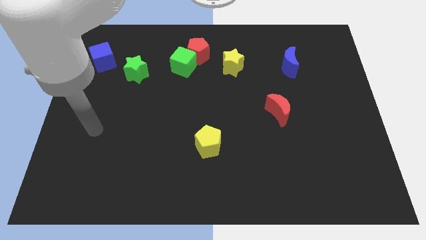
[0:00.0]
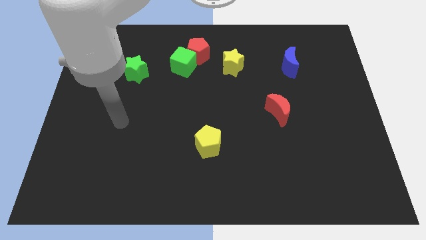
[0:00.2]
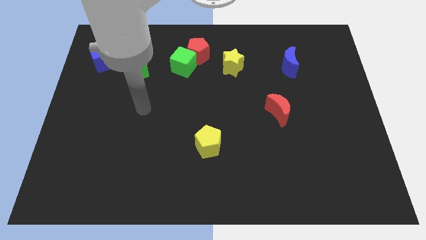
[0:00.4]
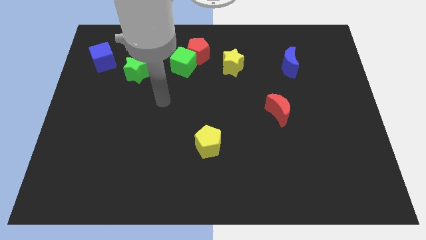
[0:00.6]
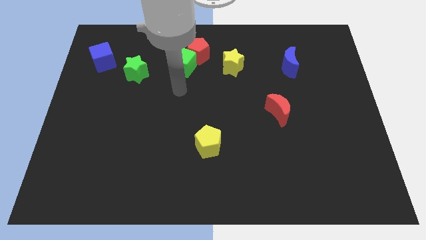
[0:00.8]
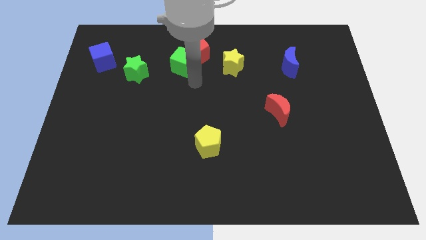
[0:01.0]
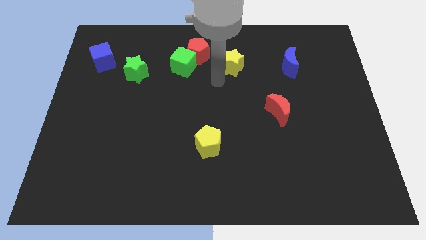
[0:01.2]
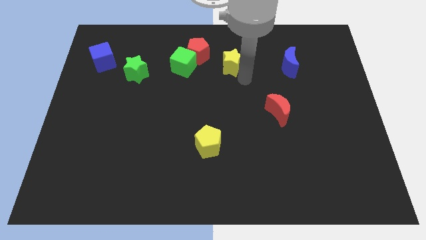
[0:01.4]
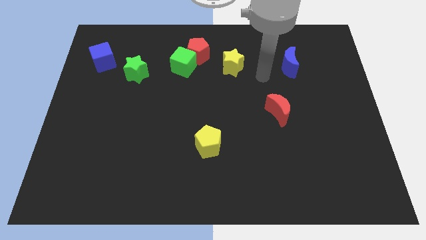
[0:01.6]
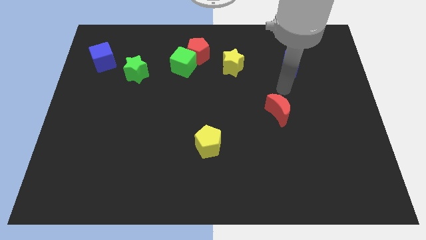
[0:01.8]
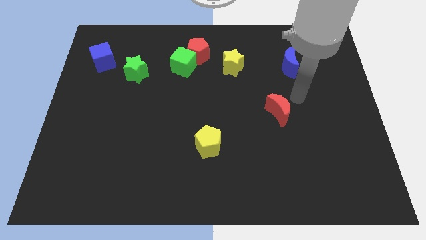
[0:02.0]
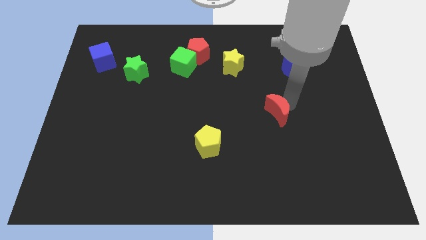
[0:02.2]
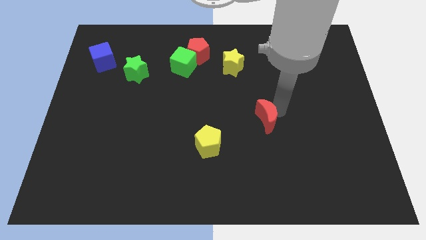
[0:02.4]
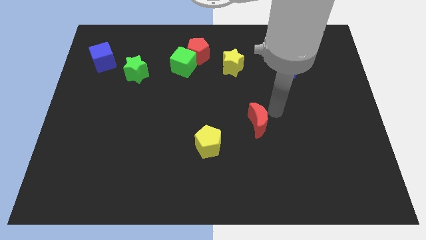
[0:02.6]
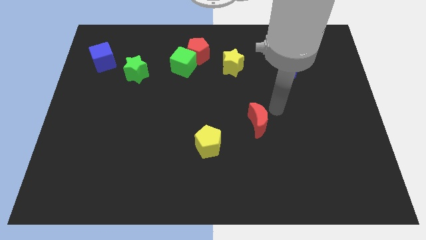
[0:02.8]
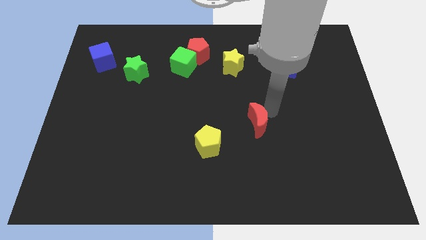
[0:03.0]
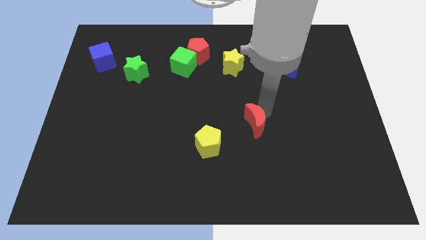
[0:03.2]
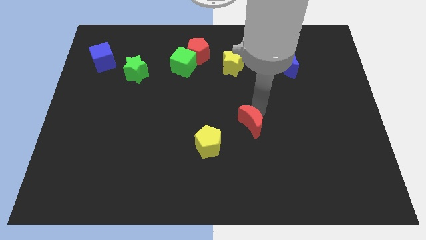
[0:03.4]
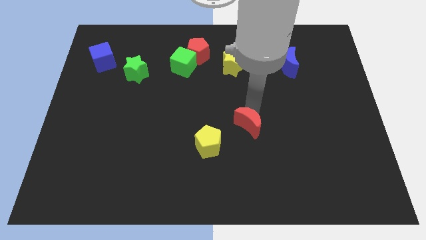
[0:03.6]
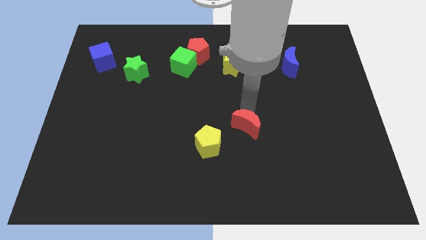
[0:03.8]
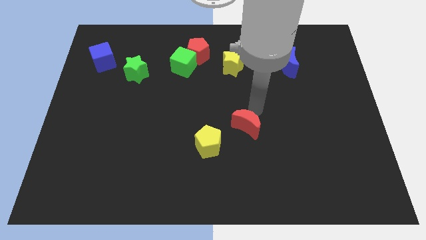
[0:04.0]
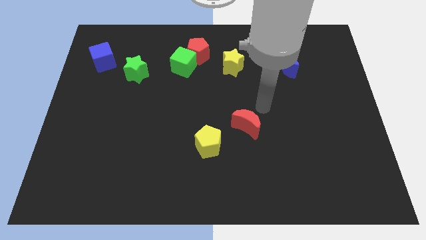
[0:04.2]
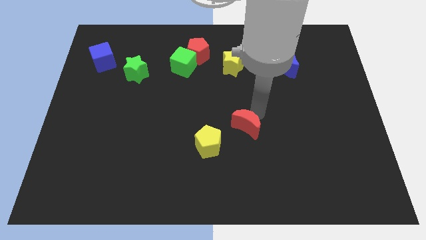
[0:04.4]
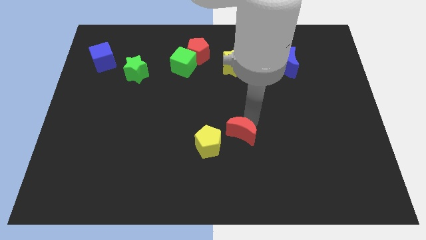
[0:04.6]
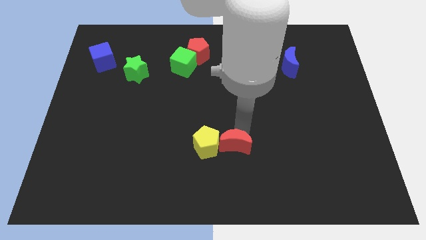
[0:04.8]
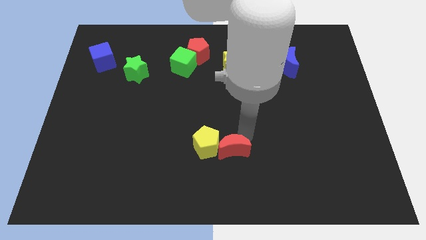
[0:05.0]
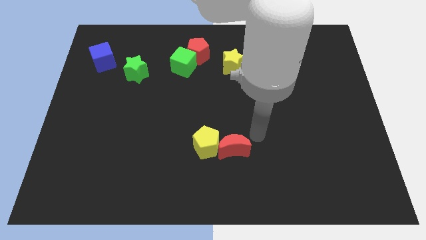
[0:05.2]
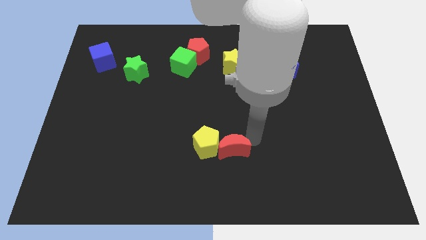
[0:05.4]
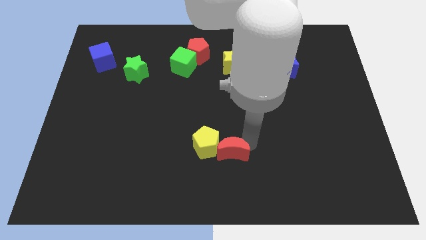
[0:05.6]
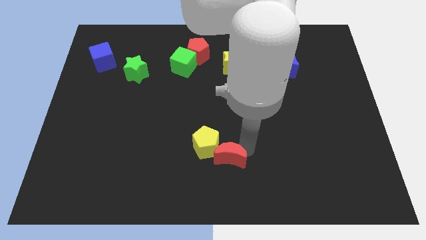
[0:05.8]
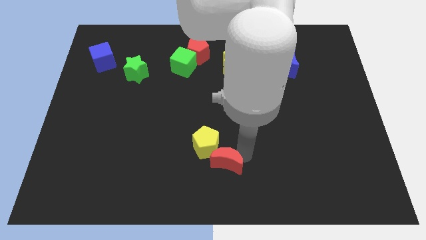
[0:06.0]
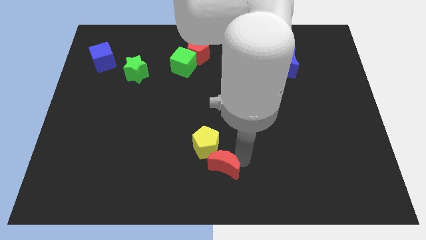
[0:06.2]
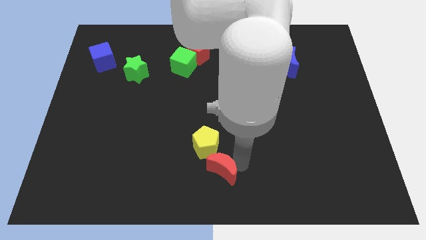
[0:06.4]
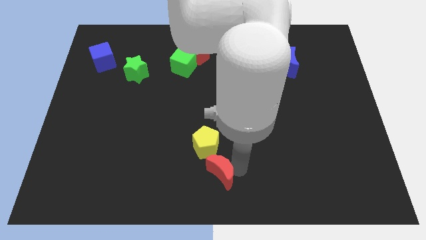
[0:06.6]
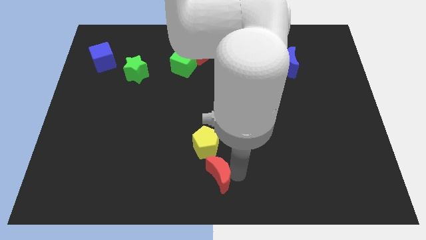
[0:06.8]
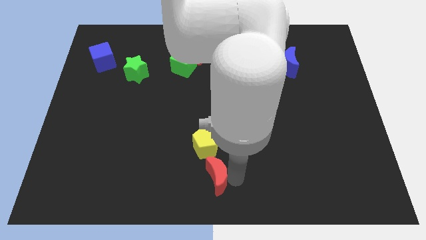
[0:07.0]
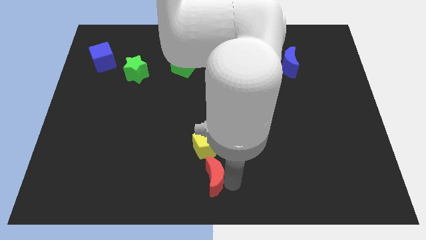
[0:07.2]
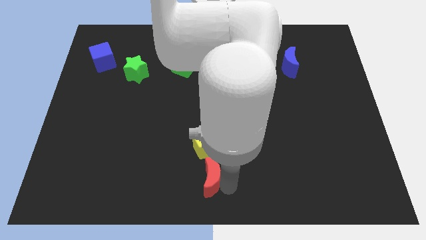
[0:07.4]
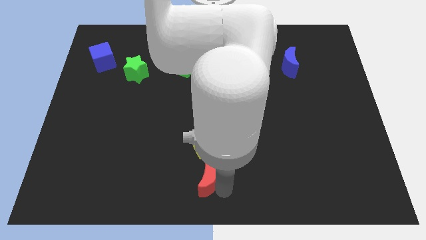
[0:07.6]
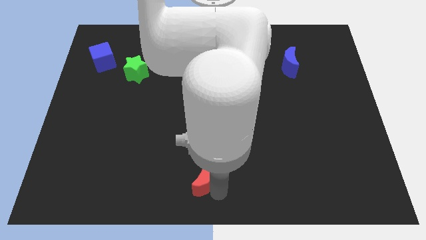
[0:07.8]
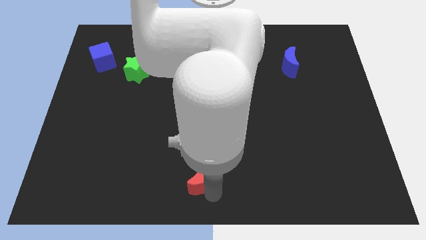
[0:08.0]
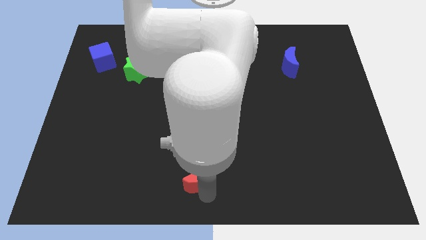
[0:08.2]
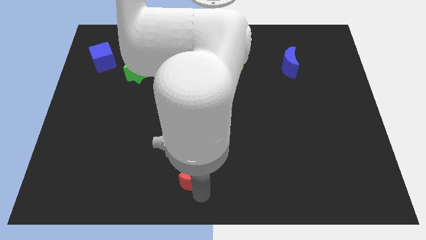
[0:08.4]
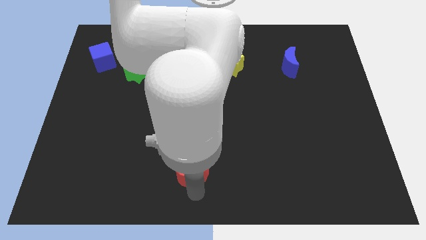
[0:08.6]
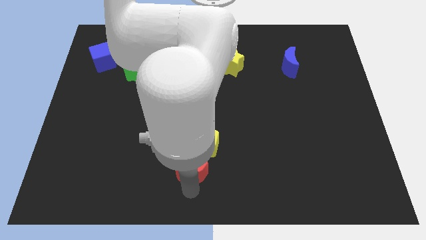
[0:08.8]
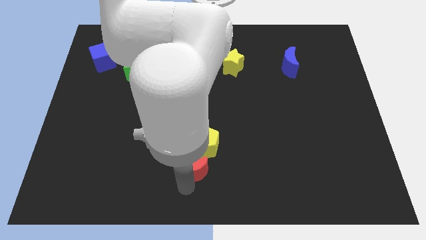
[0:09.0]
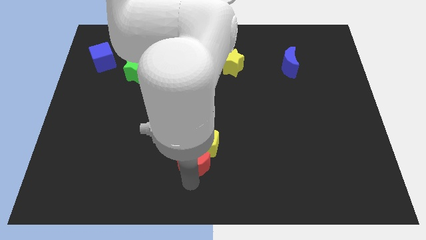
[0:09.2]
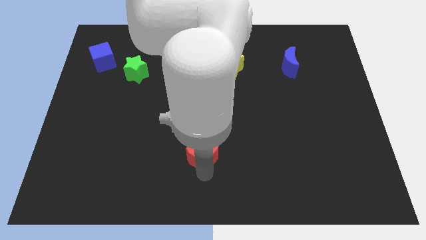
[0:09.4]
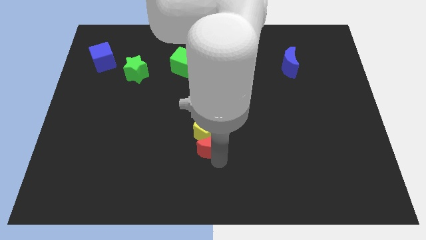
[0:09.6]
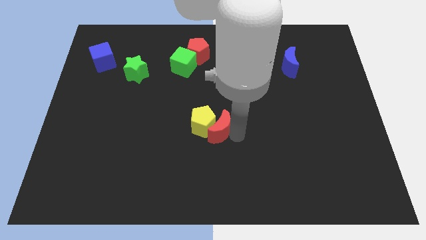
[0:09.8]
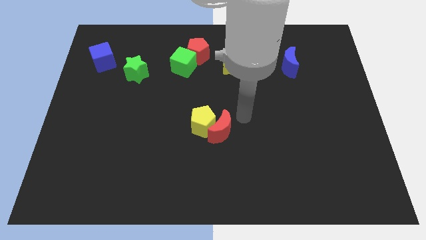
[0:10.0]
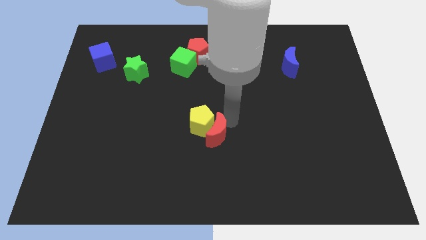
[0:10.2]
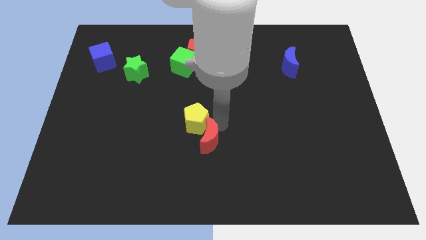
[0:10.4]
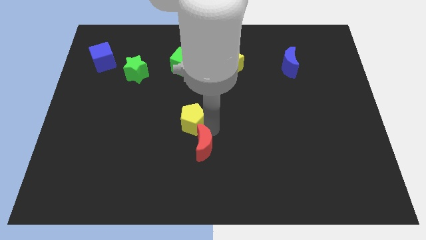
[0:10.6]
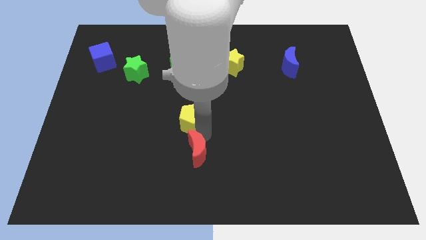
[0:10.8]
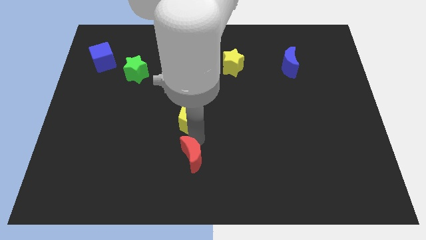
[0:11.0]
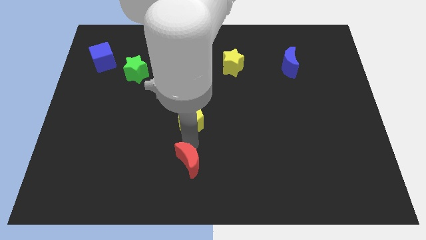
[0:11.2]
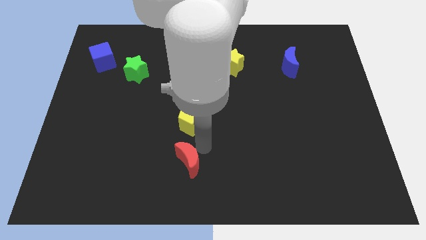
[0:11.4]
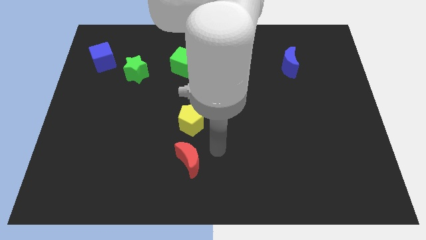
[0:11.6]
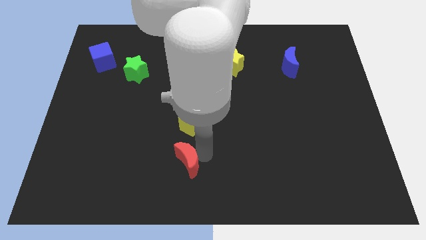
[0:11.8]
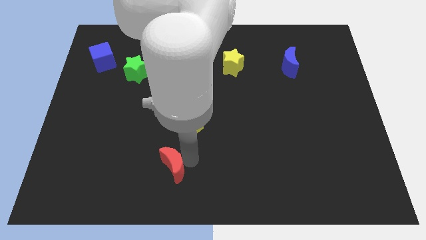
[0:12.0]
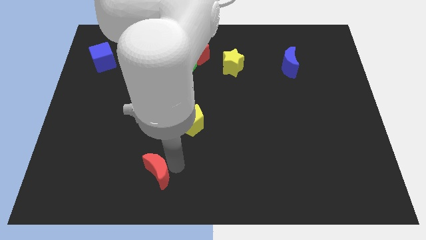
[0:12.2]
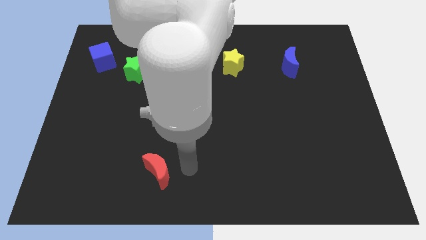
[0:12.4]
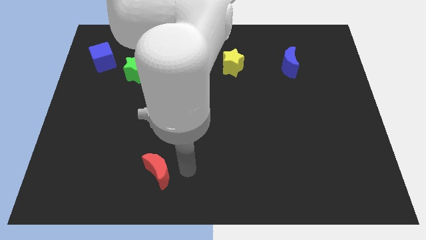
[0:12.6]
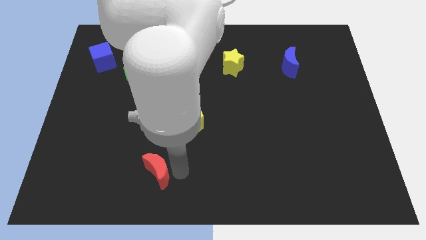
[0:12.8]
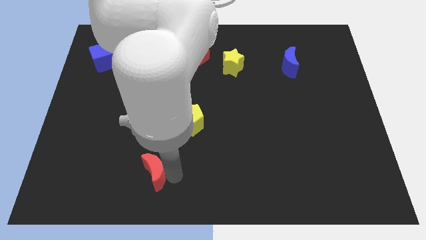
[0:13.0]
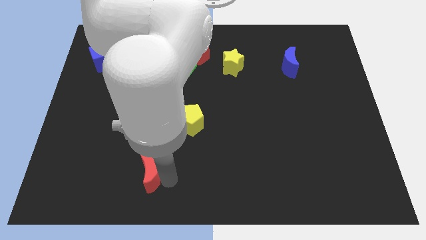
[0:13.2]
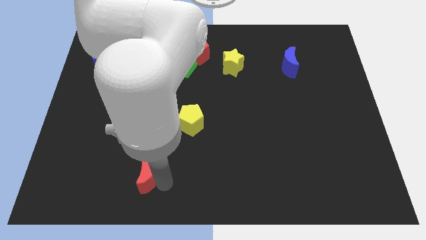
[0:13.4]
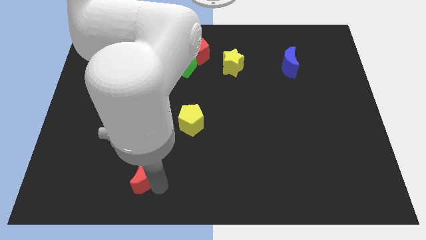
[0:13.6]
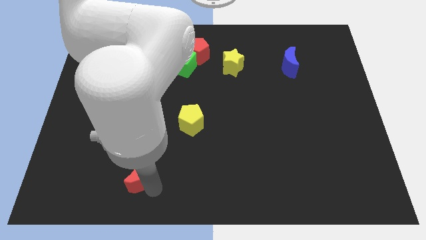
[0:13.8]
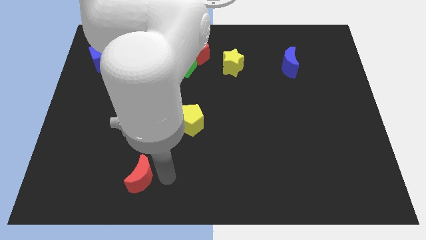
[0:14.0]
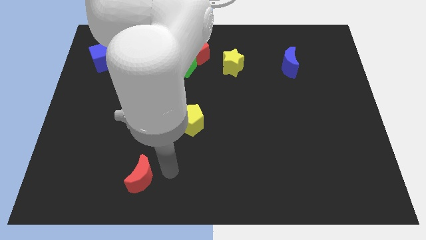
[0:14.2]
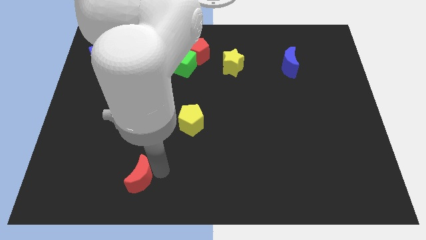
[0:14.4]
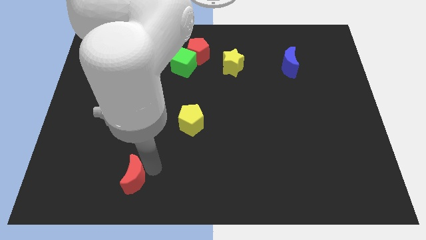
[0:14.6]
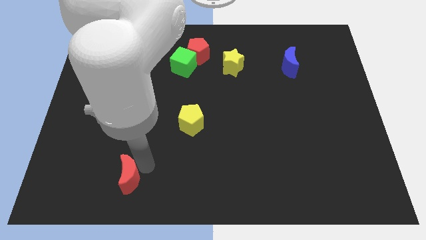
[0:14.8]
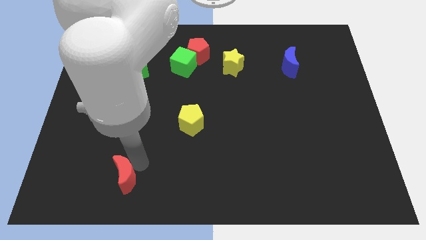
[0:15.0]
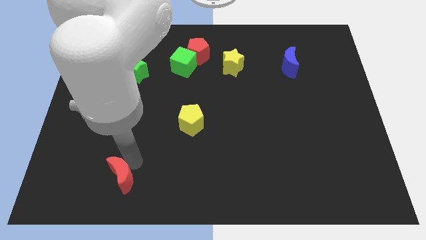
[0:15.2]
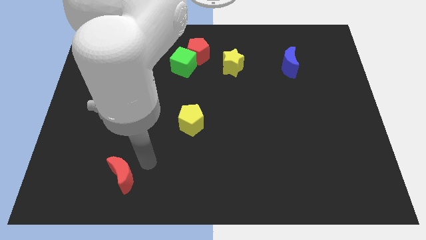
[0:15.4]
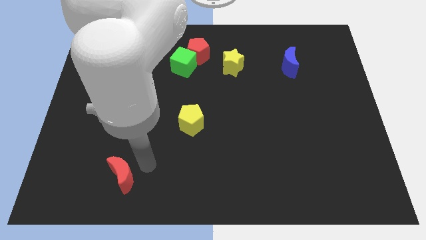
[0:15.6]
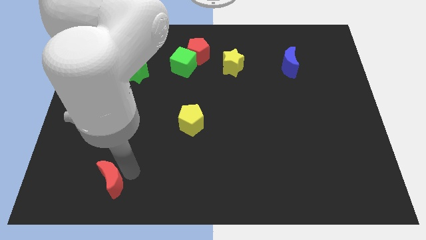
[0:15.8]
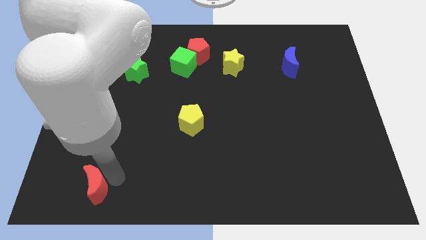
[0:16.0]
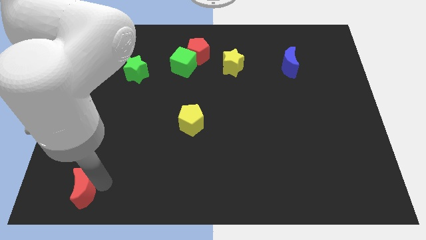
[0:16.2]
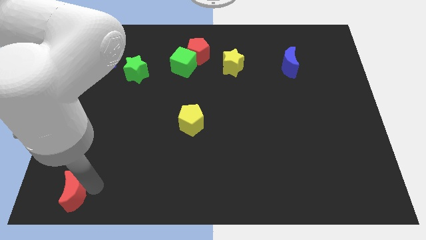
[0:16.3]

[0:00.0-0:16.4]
move the red moon to the bottom left
